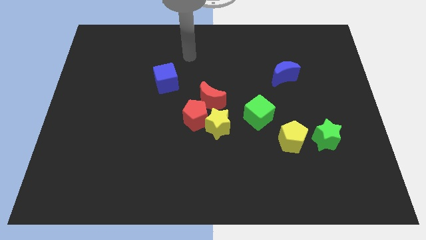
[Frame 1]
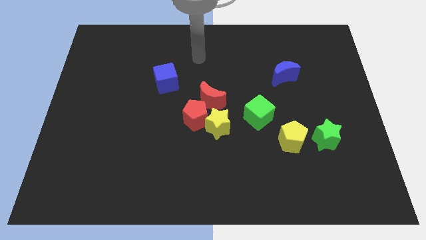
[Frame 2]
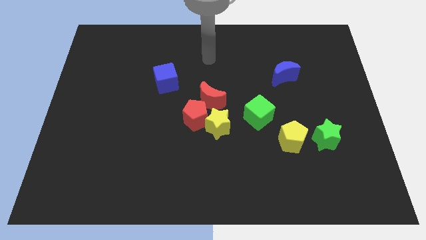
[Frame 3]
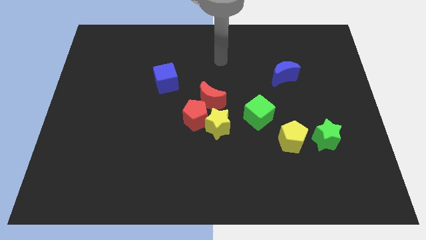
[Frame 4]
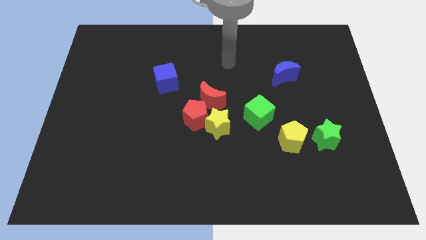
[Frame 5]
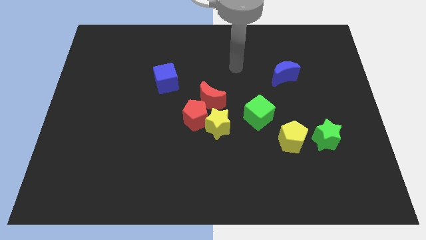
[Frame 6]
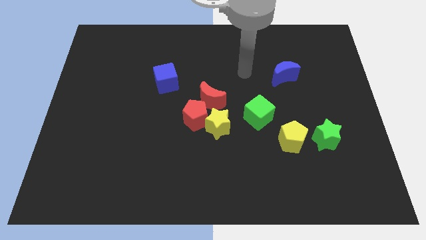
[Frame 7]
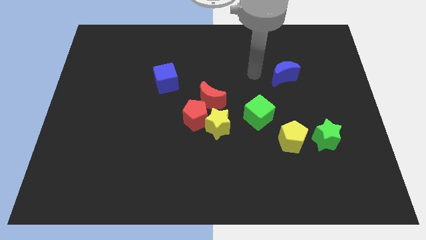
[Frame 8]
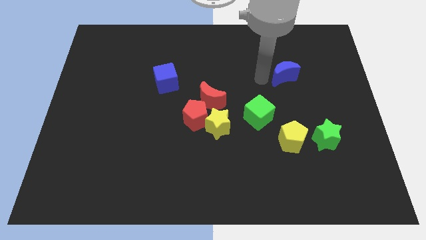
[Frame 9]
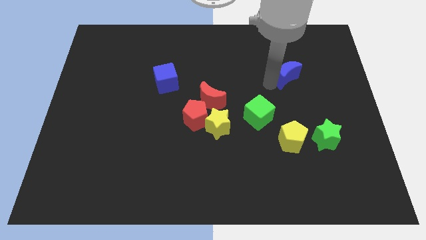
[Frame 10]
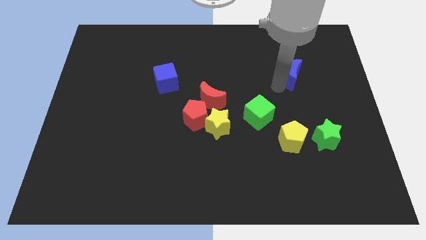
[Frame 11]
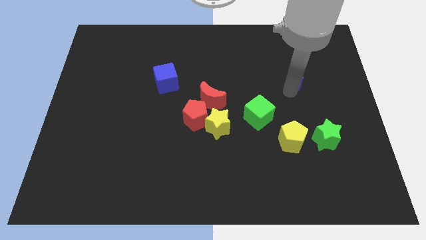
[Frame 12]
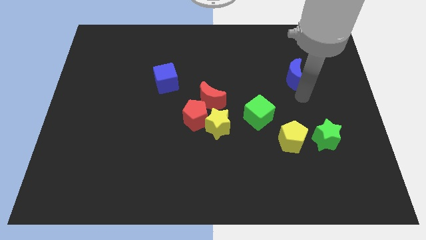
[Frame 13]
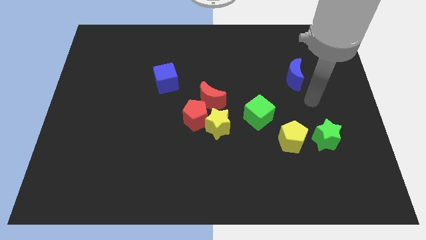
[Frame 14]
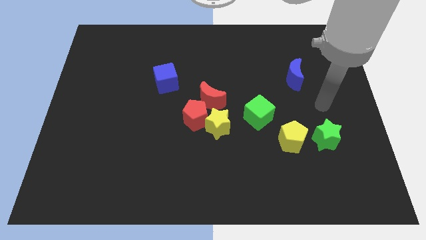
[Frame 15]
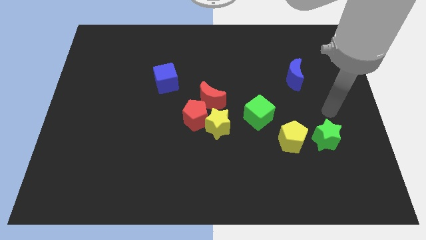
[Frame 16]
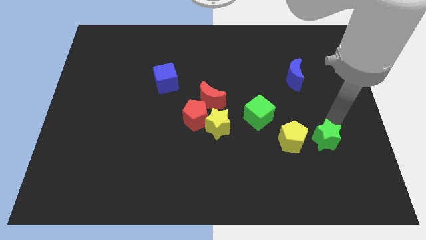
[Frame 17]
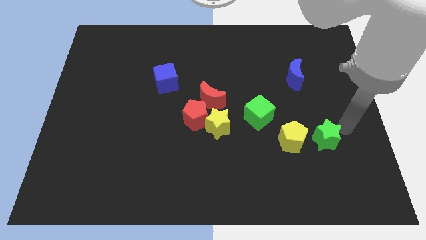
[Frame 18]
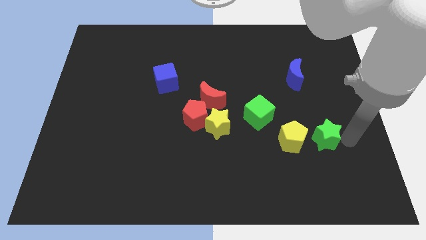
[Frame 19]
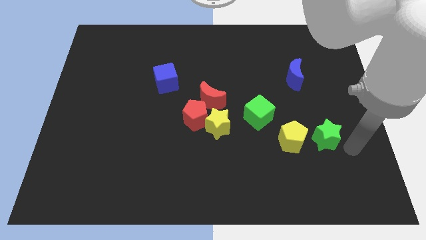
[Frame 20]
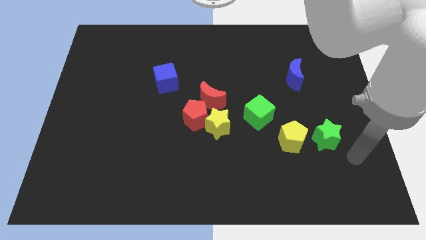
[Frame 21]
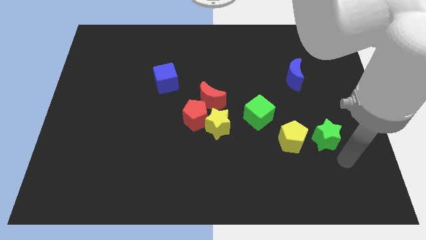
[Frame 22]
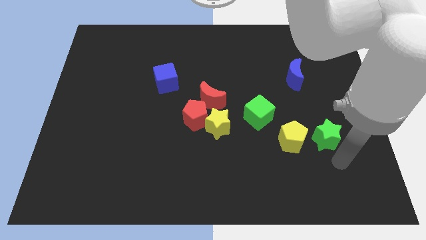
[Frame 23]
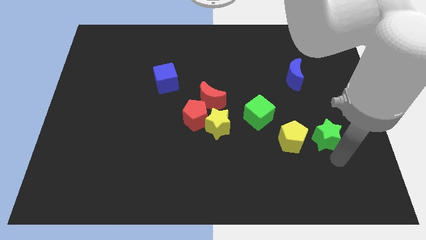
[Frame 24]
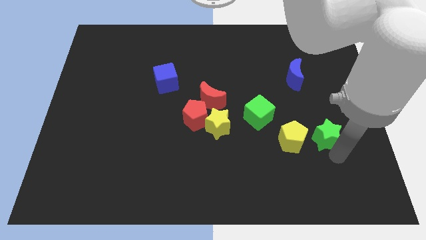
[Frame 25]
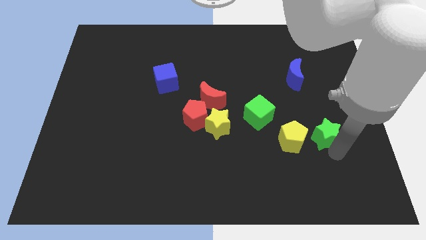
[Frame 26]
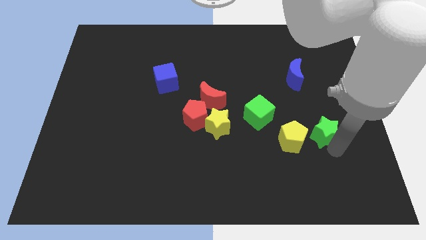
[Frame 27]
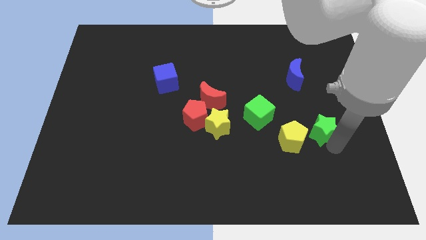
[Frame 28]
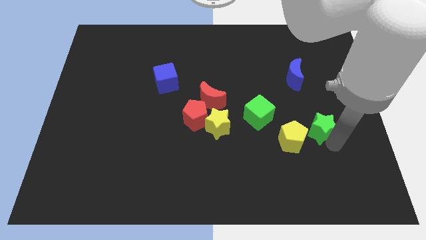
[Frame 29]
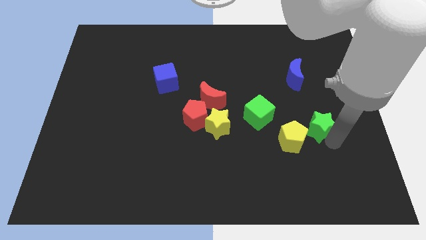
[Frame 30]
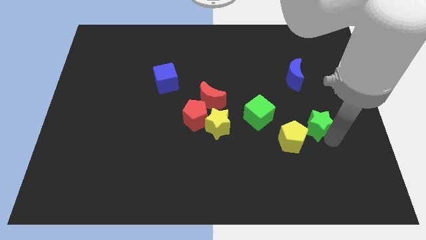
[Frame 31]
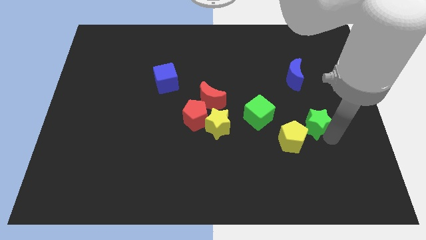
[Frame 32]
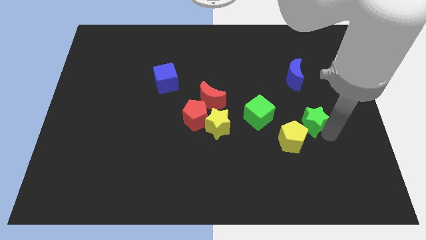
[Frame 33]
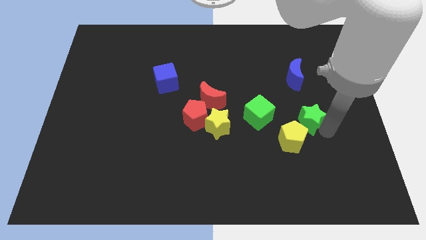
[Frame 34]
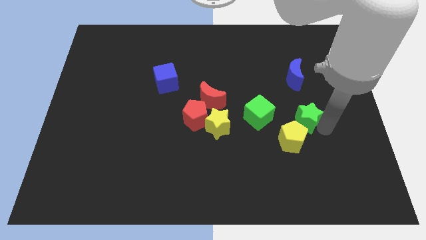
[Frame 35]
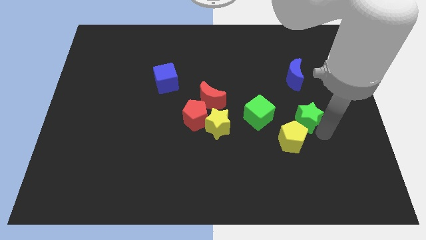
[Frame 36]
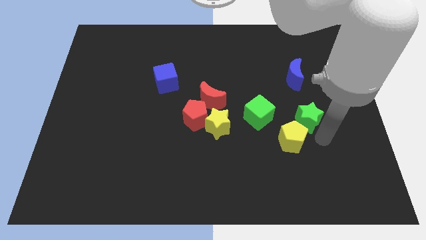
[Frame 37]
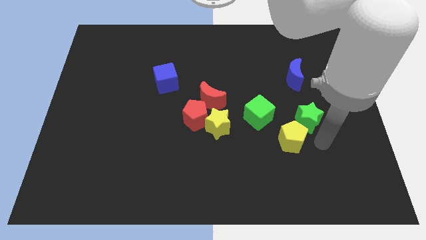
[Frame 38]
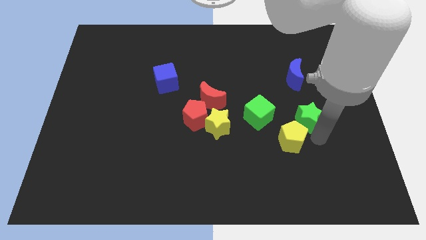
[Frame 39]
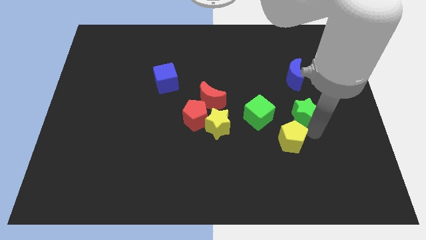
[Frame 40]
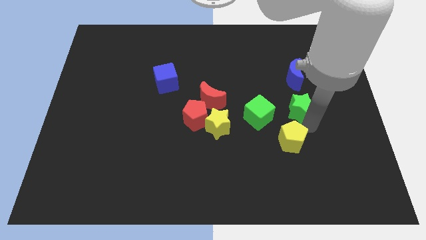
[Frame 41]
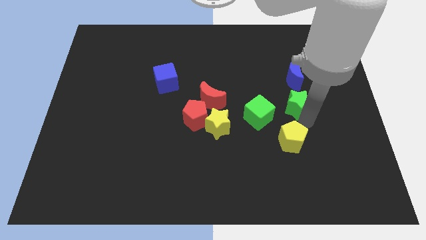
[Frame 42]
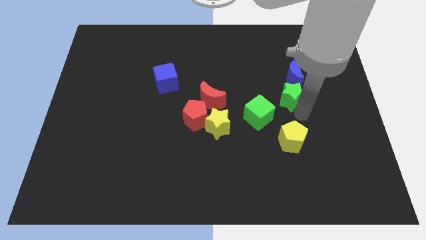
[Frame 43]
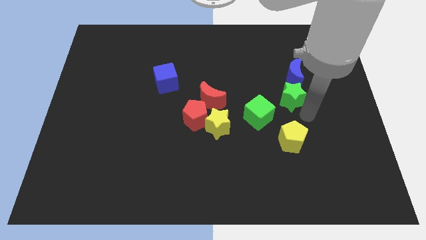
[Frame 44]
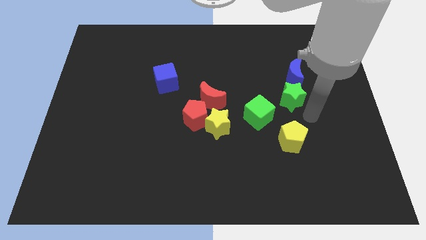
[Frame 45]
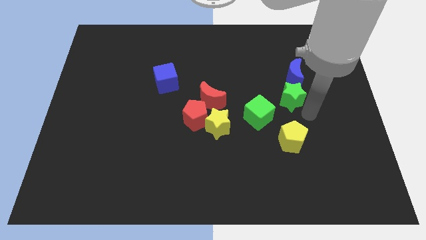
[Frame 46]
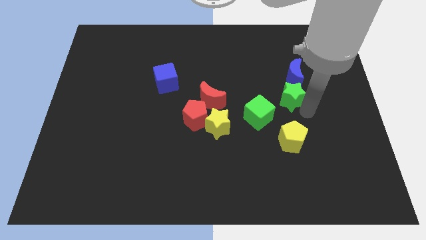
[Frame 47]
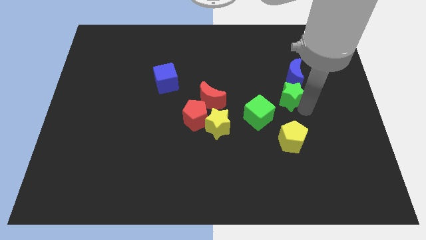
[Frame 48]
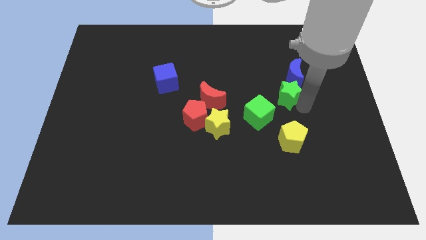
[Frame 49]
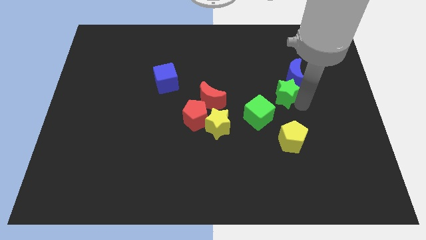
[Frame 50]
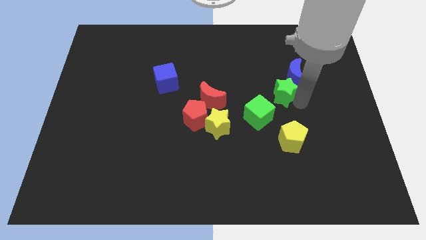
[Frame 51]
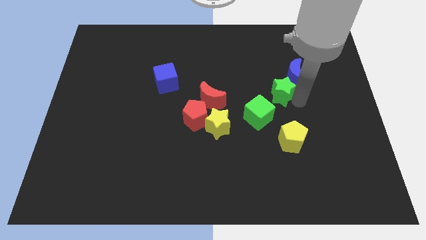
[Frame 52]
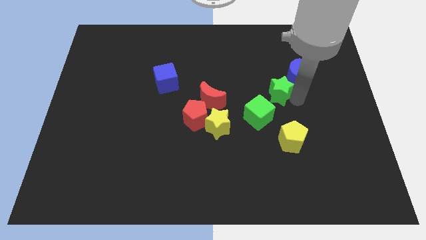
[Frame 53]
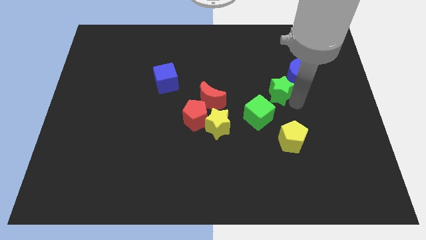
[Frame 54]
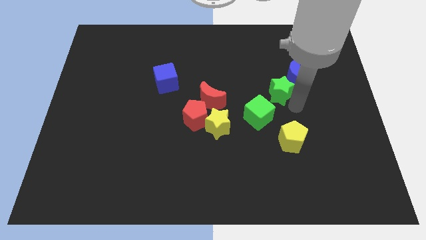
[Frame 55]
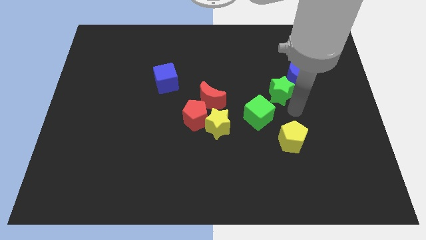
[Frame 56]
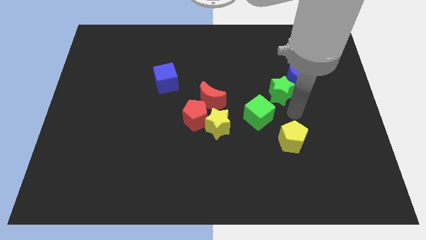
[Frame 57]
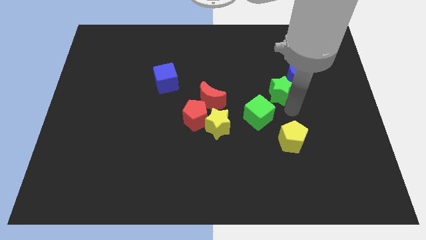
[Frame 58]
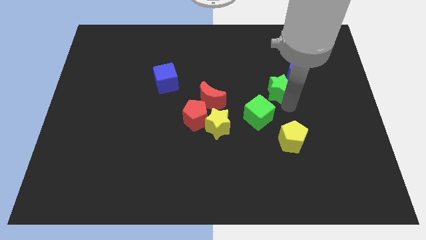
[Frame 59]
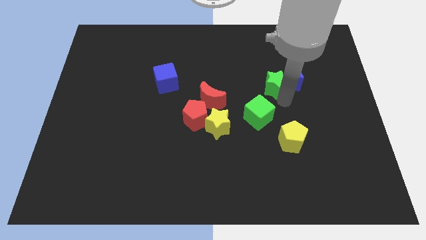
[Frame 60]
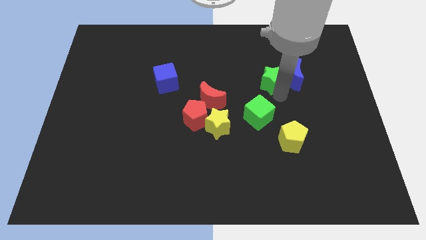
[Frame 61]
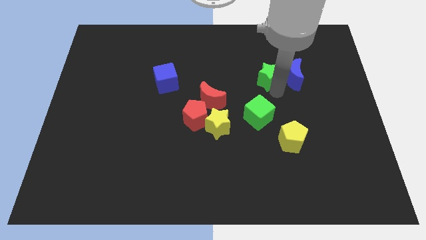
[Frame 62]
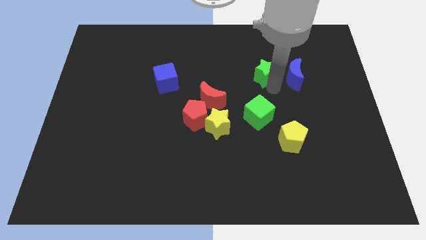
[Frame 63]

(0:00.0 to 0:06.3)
slide the green star to the top left side of the blue moon

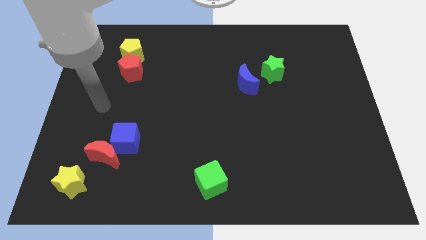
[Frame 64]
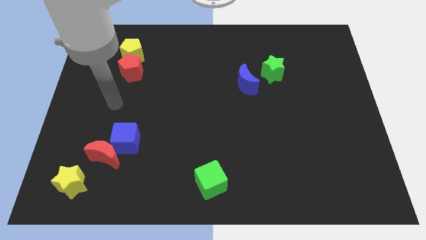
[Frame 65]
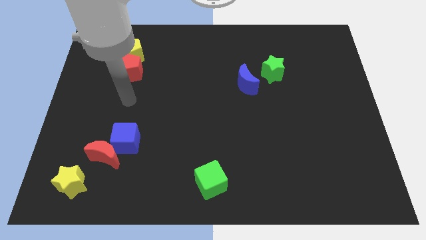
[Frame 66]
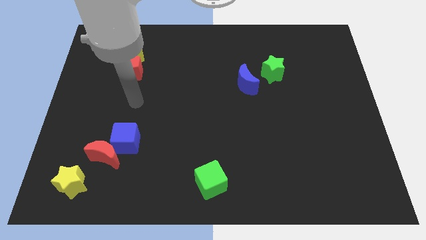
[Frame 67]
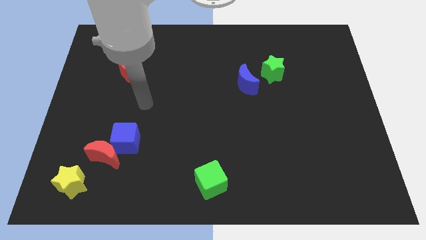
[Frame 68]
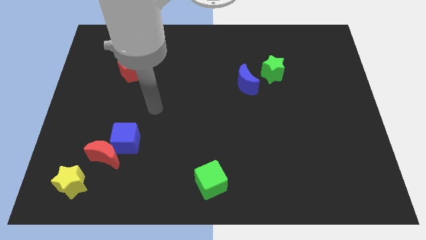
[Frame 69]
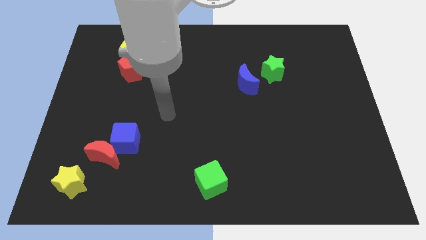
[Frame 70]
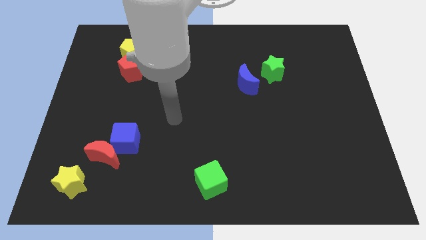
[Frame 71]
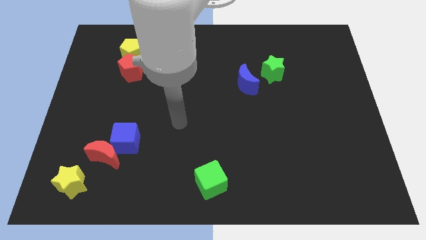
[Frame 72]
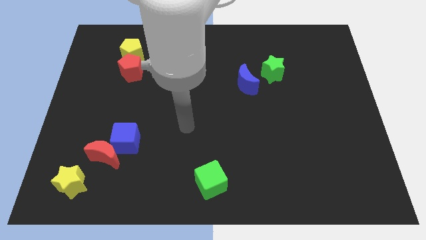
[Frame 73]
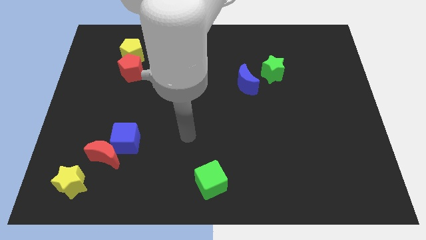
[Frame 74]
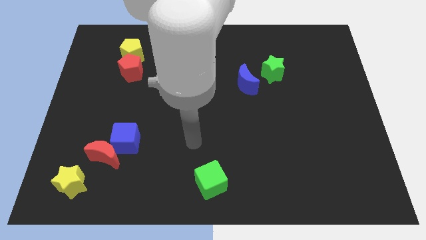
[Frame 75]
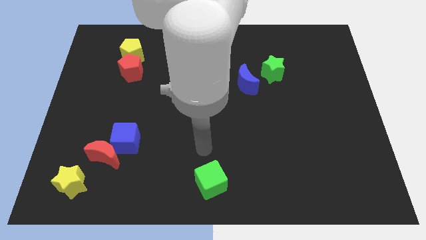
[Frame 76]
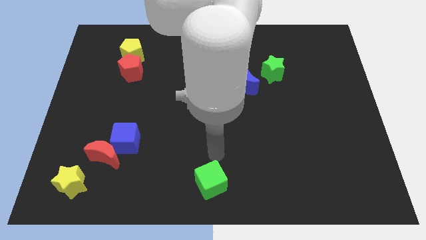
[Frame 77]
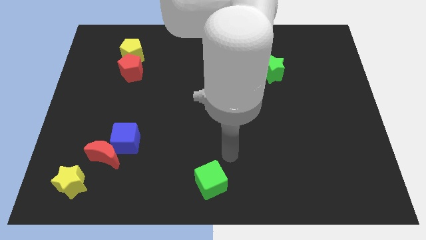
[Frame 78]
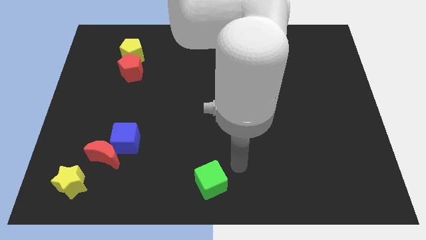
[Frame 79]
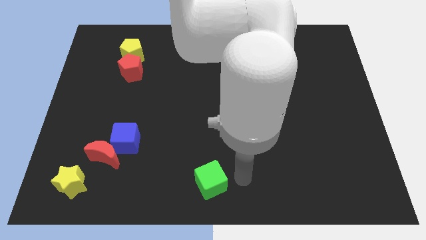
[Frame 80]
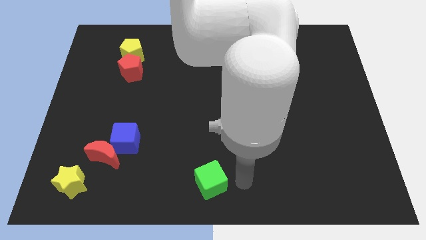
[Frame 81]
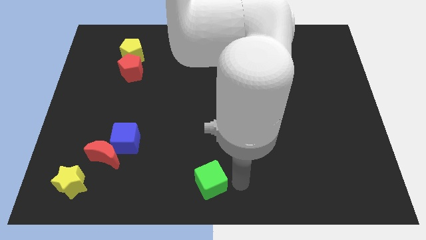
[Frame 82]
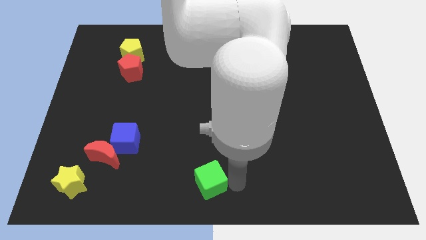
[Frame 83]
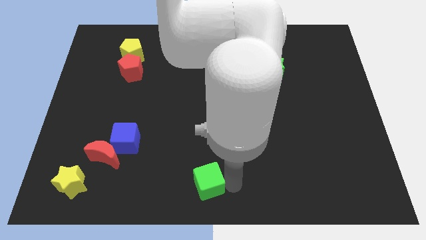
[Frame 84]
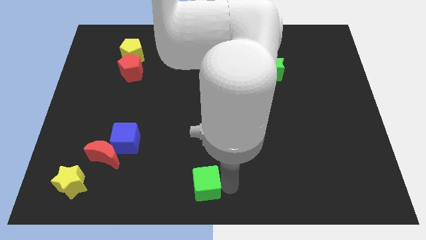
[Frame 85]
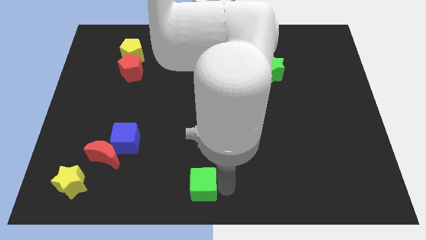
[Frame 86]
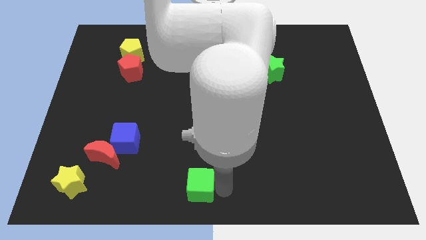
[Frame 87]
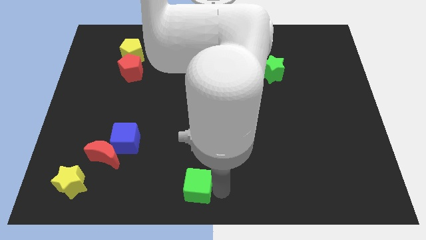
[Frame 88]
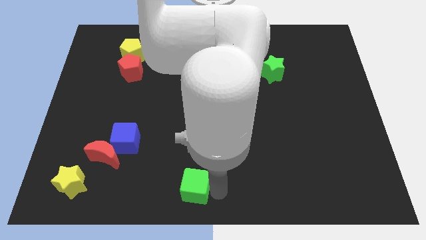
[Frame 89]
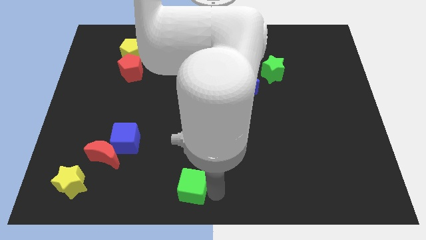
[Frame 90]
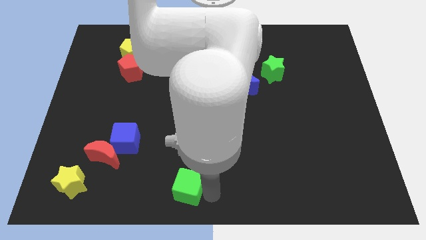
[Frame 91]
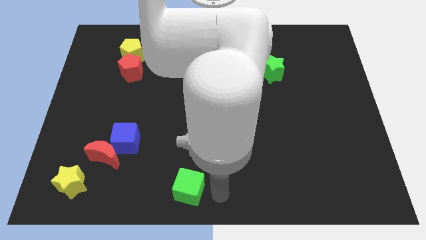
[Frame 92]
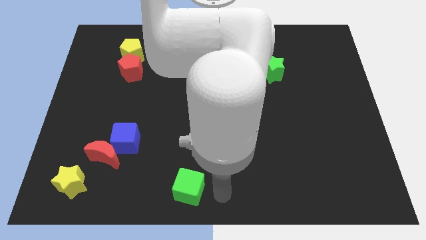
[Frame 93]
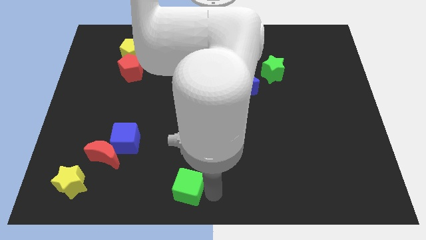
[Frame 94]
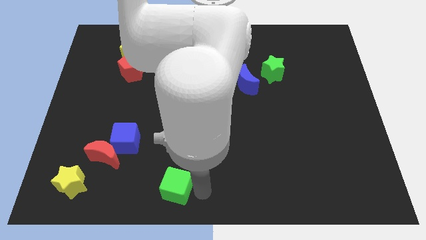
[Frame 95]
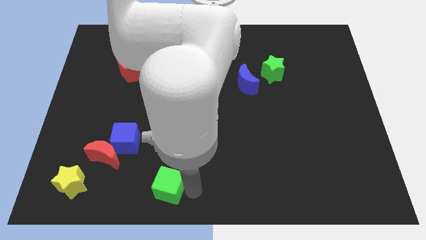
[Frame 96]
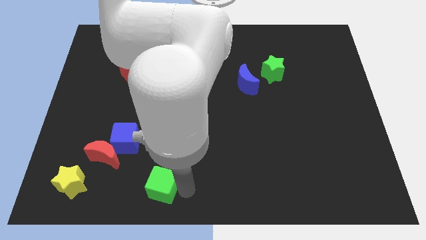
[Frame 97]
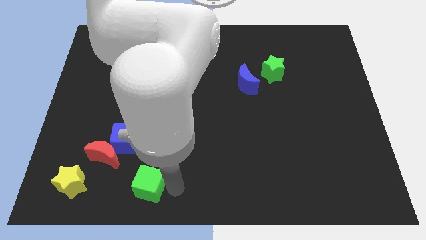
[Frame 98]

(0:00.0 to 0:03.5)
put the green cube right of the yellow star
